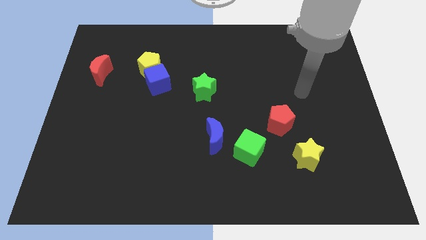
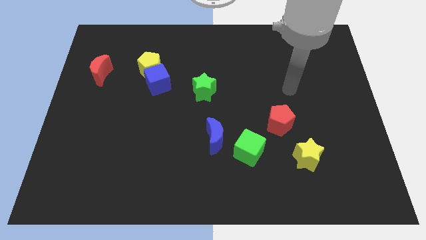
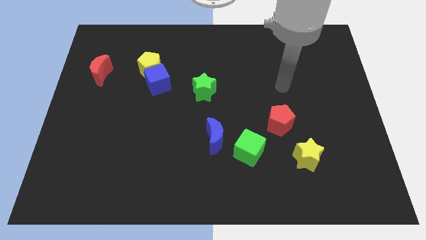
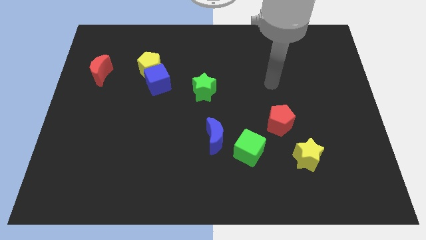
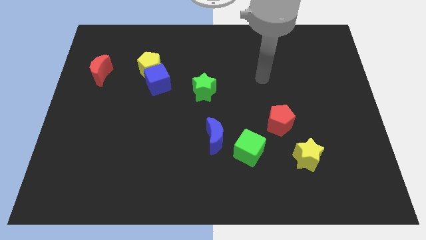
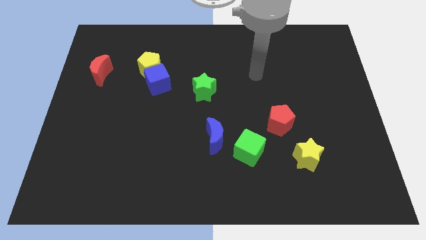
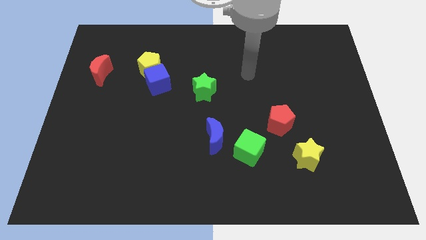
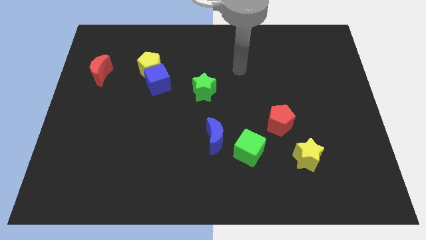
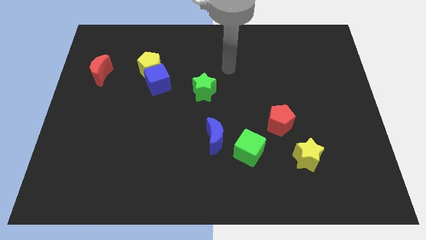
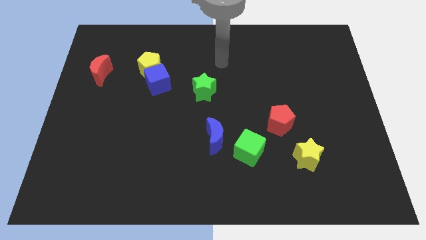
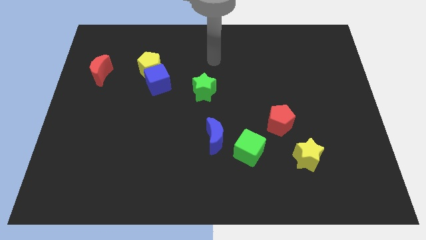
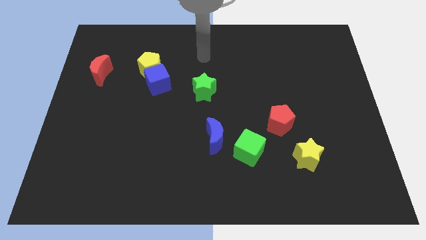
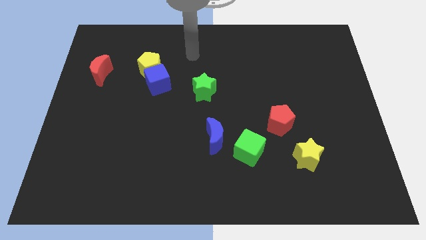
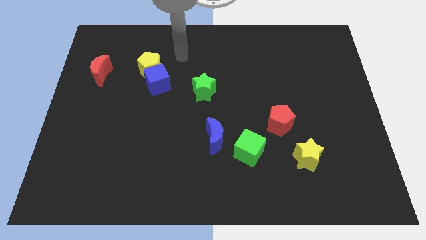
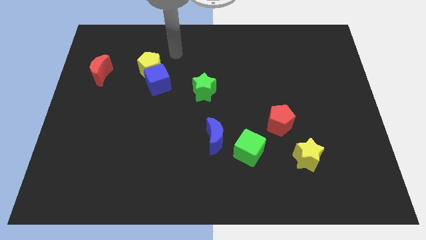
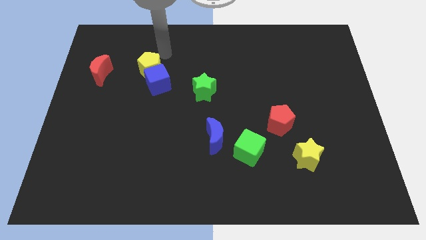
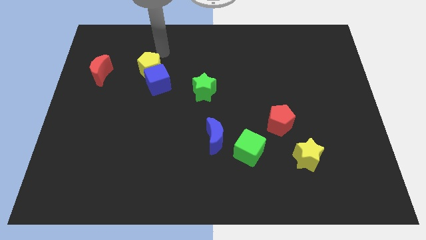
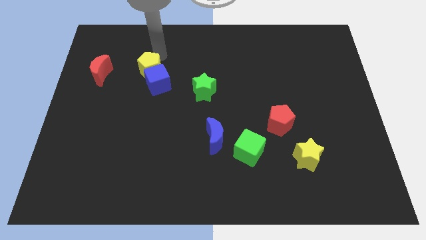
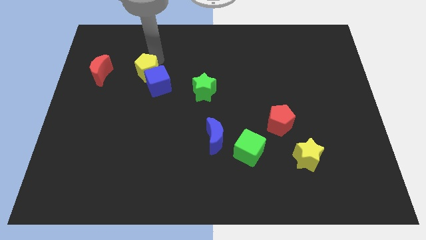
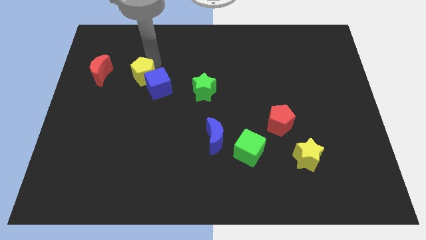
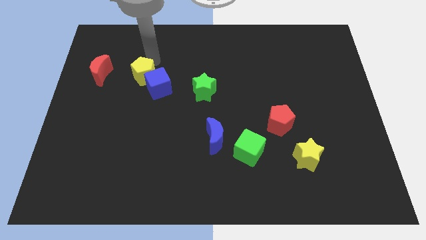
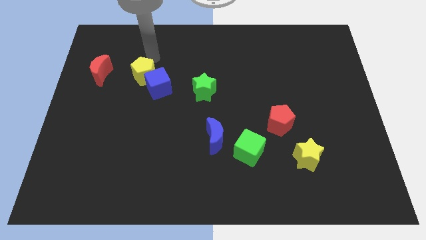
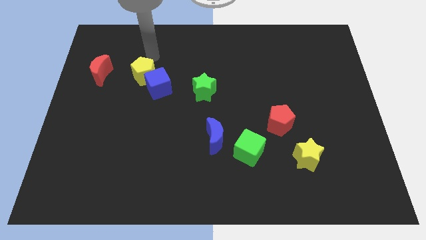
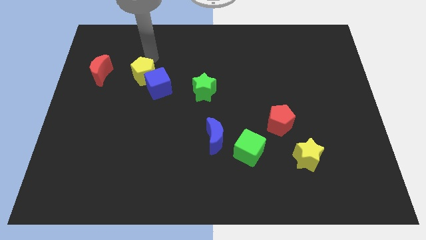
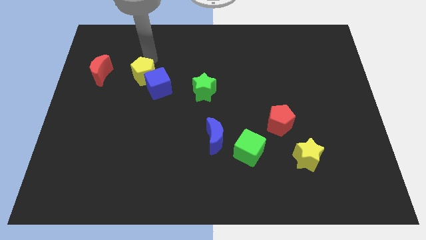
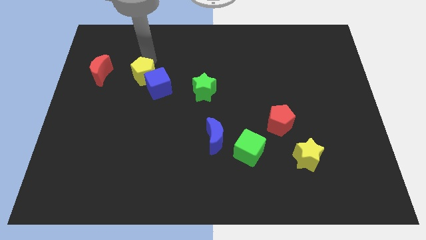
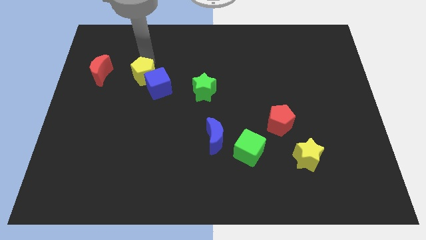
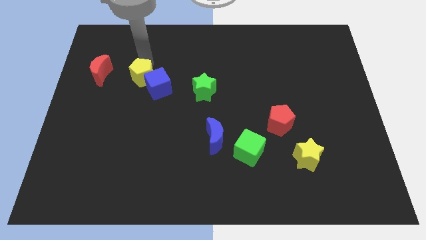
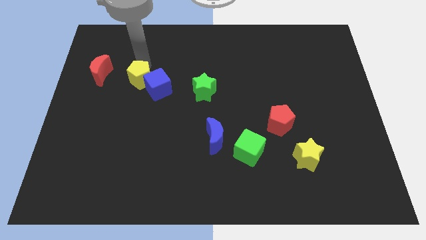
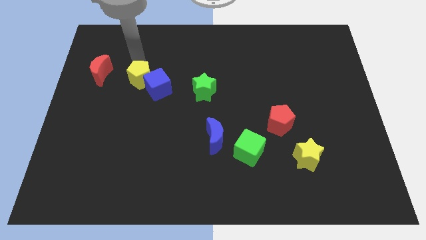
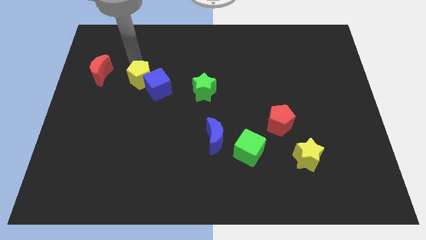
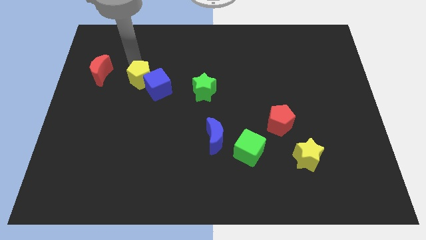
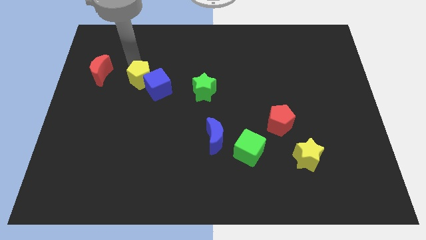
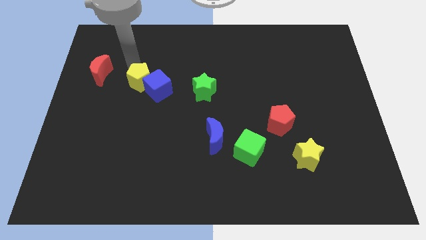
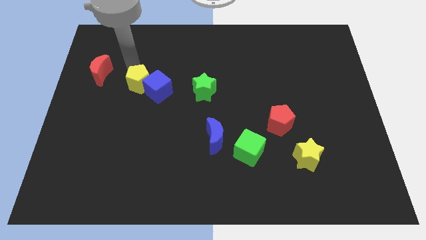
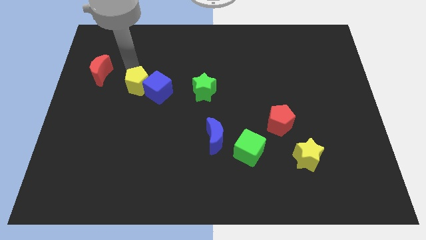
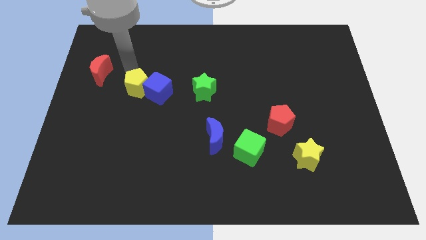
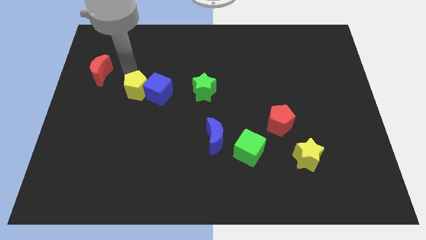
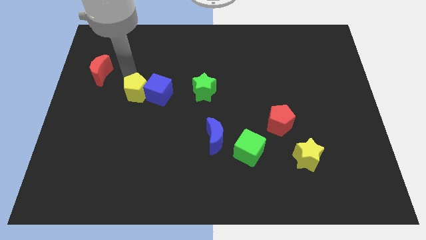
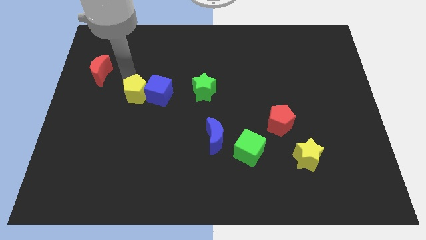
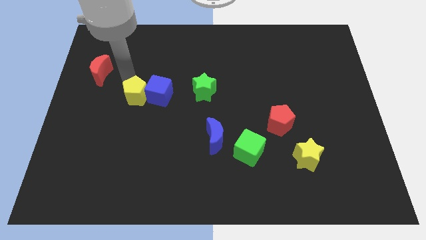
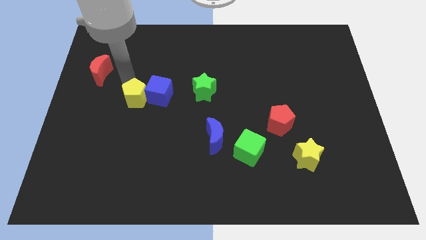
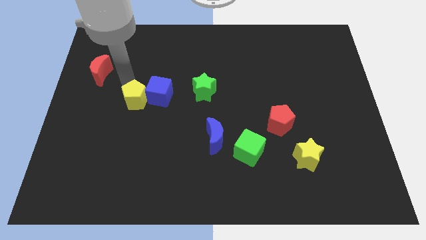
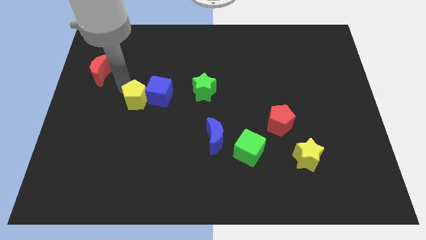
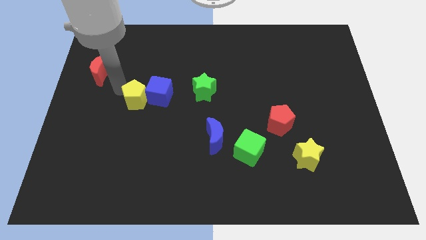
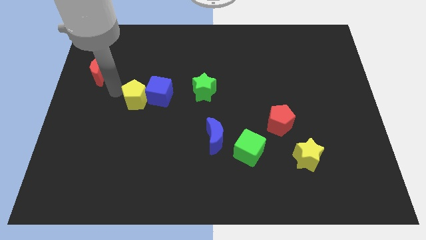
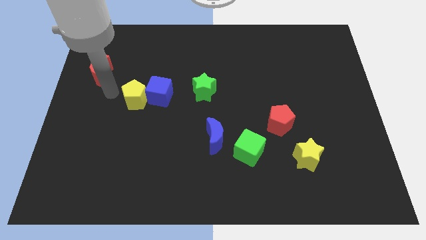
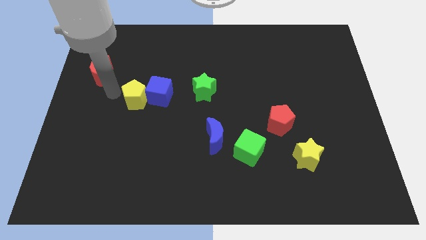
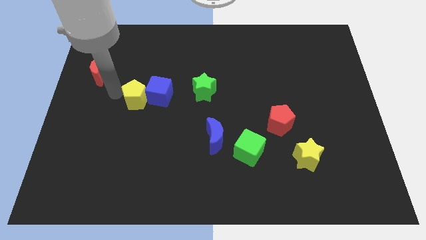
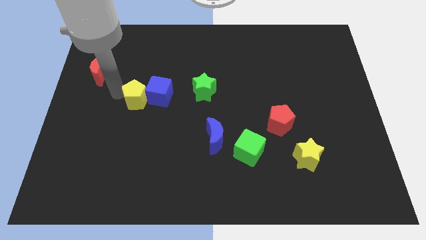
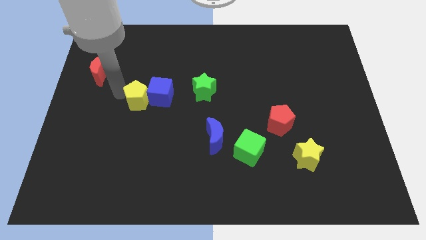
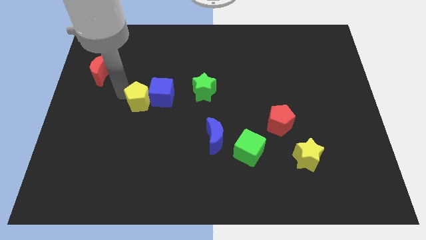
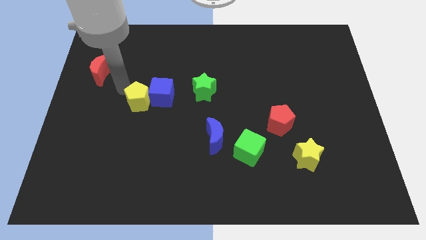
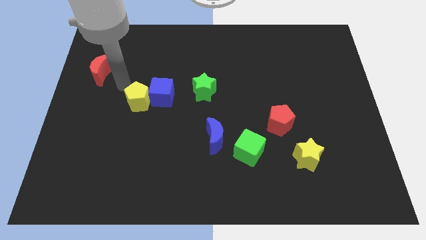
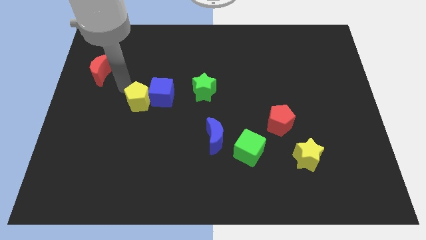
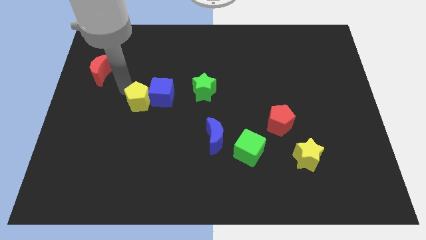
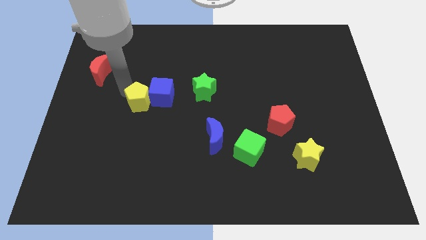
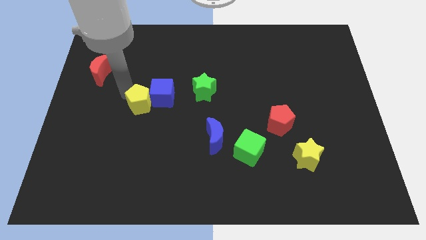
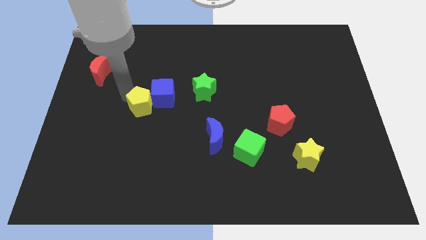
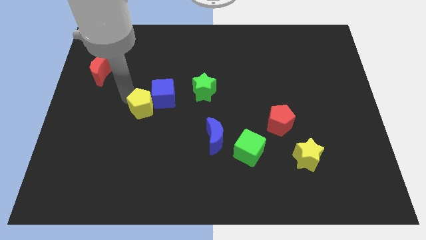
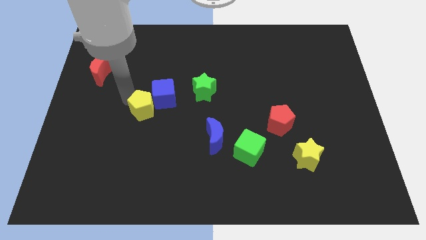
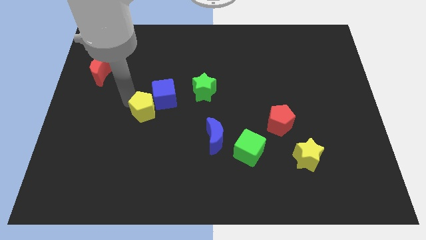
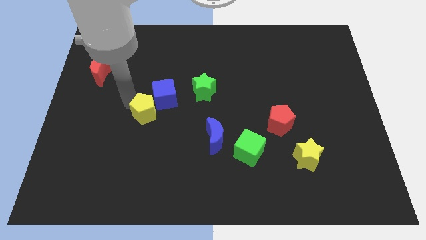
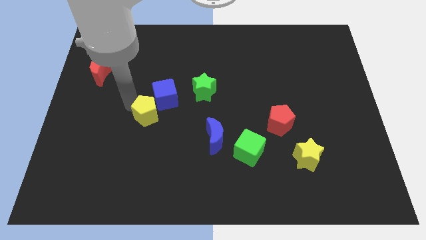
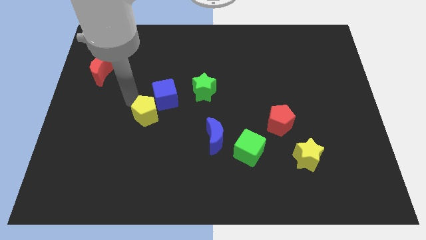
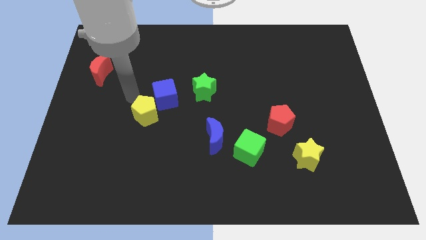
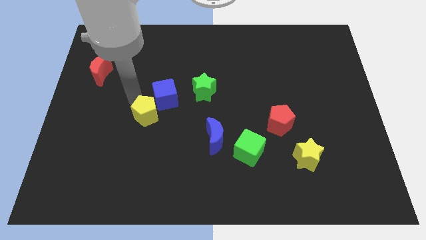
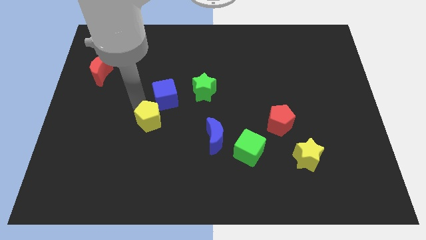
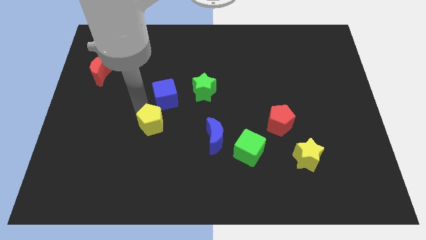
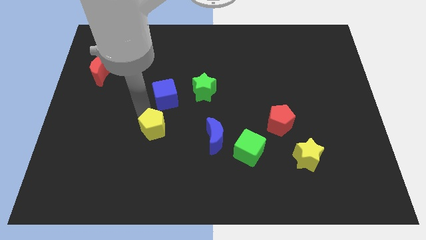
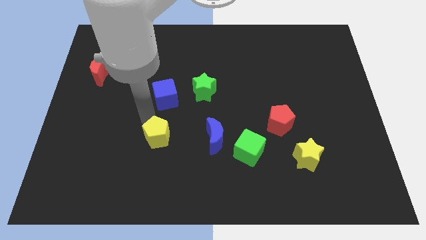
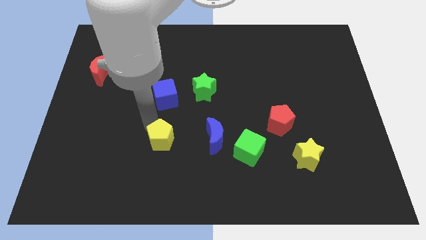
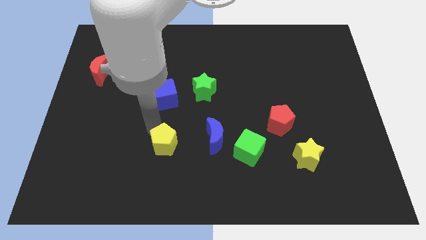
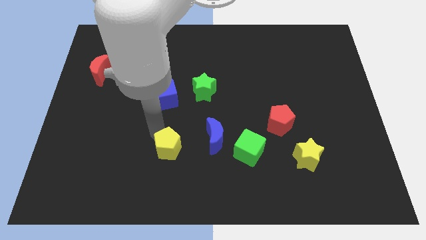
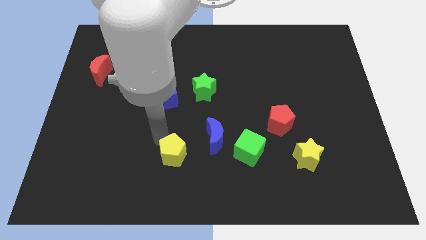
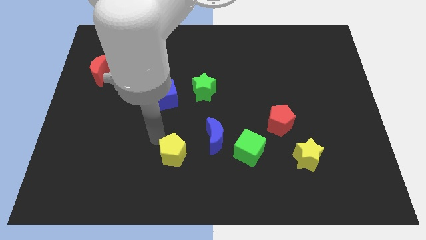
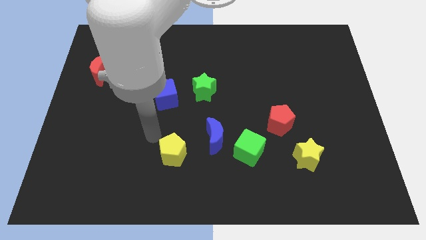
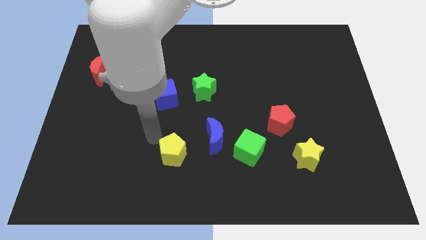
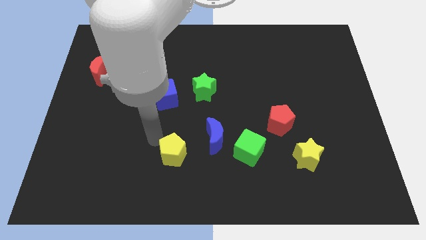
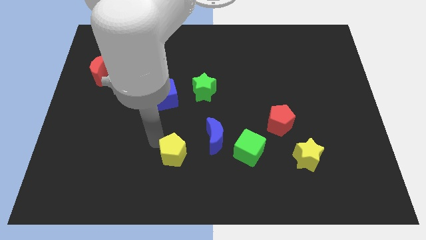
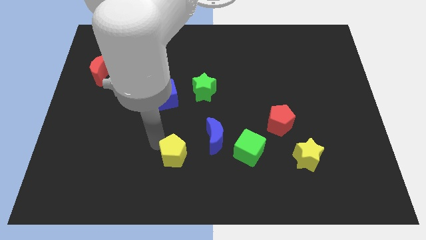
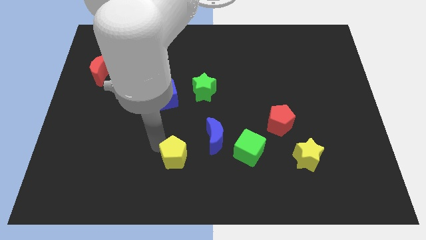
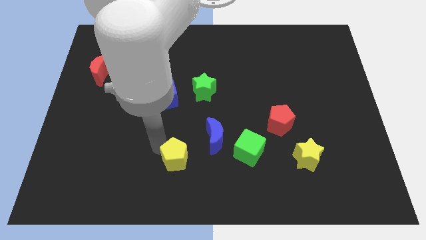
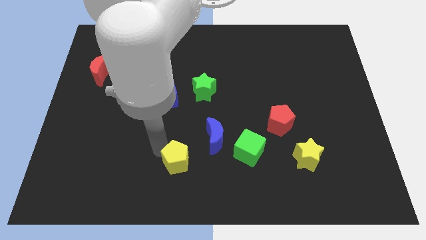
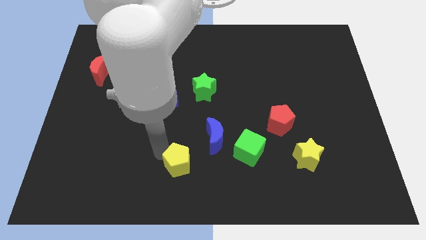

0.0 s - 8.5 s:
push the yellow pentagon to the bottom
